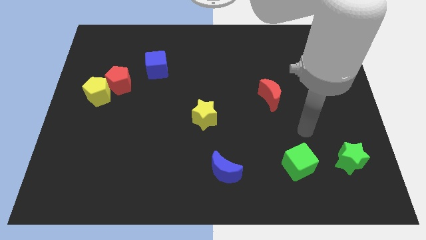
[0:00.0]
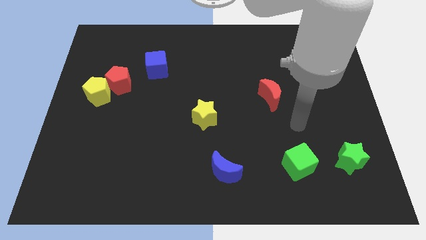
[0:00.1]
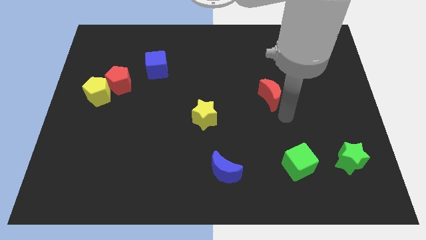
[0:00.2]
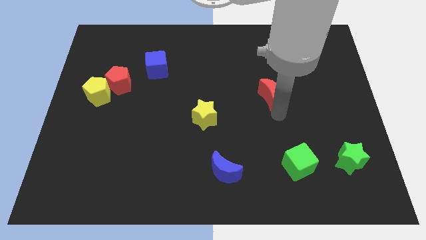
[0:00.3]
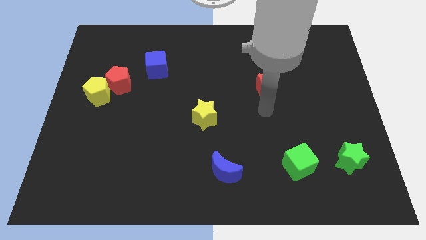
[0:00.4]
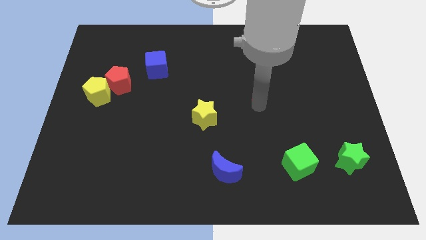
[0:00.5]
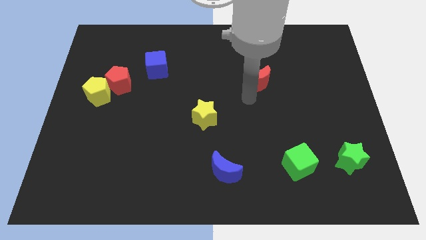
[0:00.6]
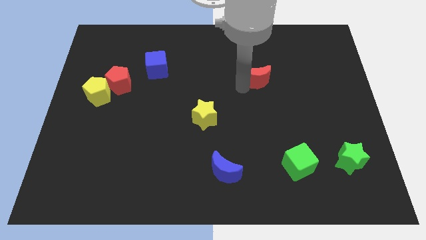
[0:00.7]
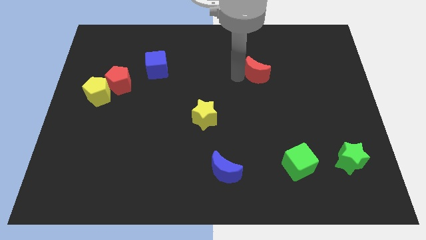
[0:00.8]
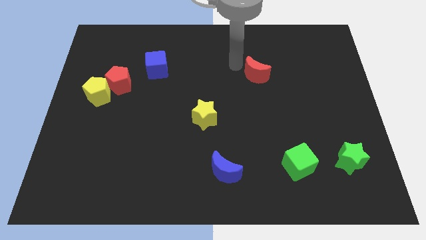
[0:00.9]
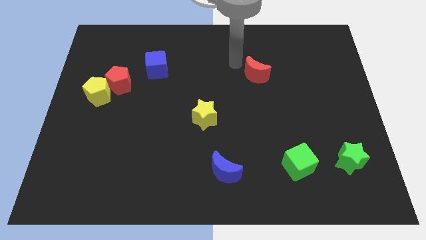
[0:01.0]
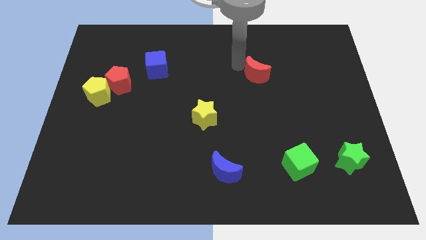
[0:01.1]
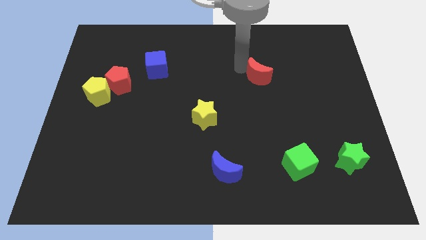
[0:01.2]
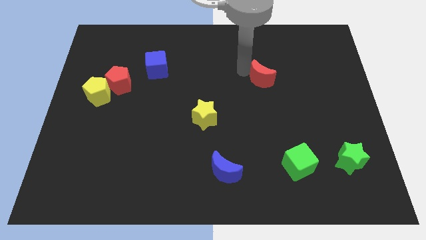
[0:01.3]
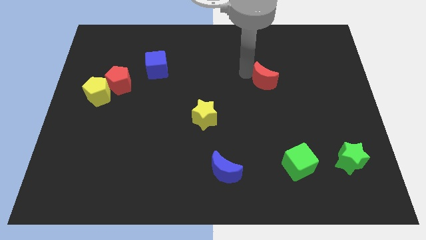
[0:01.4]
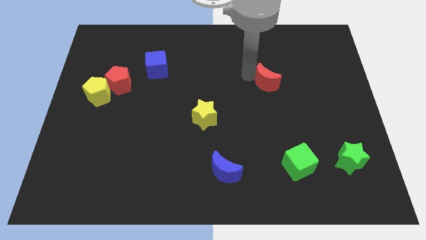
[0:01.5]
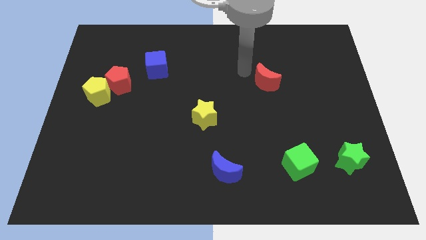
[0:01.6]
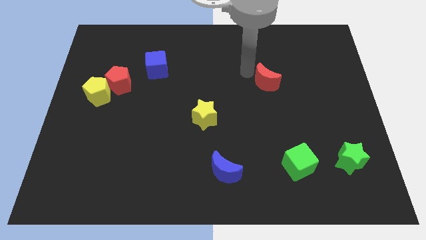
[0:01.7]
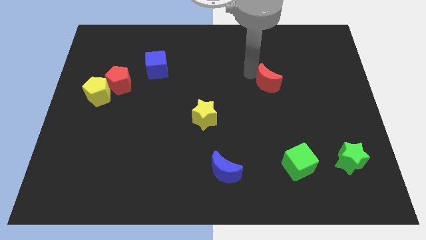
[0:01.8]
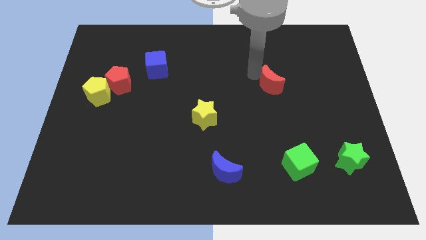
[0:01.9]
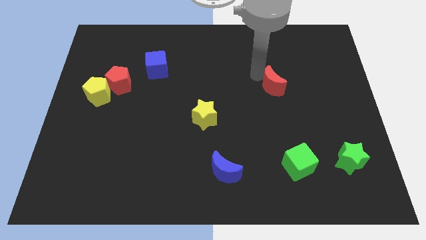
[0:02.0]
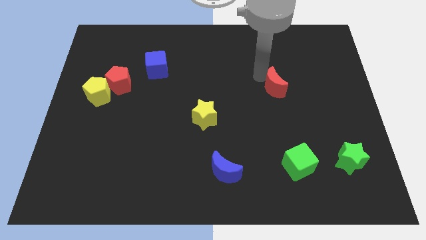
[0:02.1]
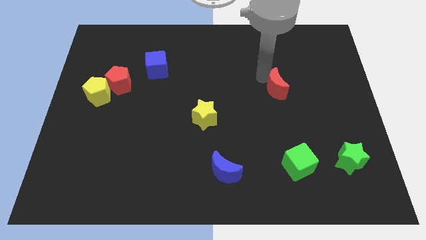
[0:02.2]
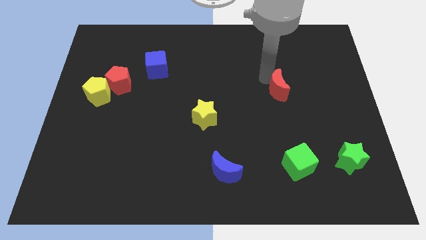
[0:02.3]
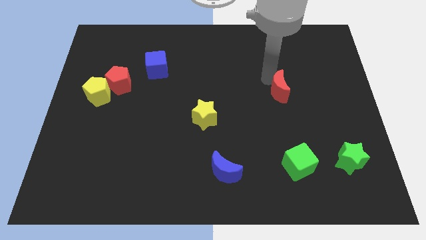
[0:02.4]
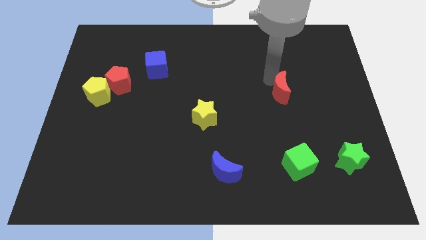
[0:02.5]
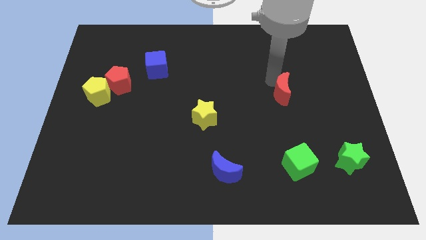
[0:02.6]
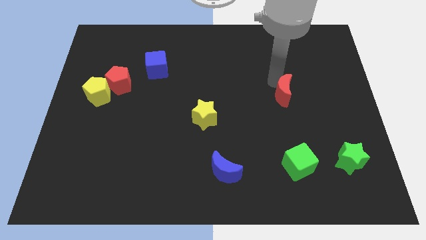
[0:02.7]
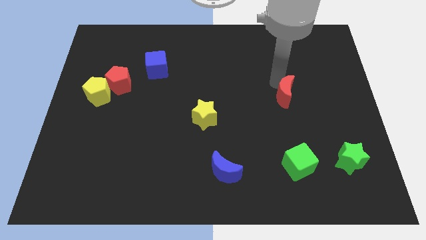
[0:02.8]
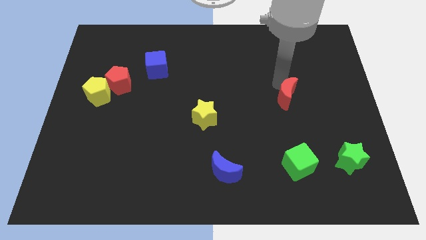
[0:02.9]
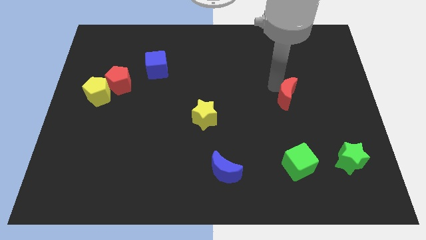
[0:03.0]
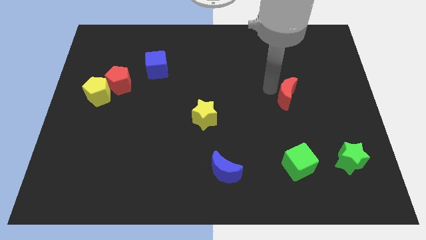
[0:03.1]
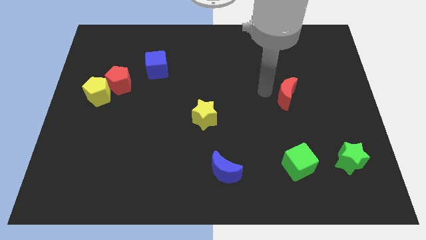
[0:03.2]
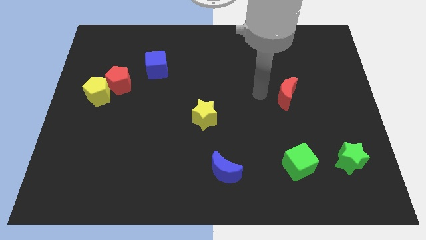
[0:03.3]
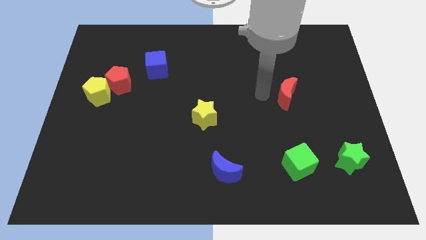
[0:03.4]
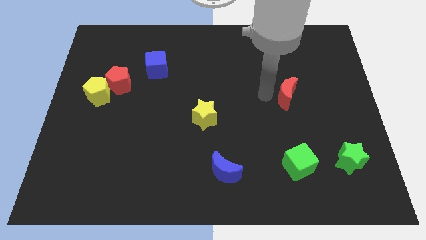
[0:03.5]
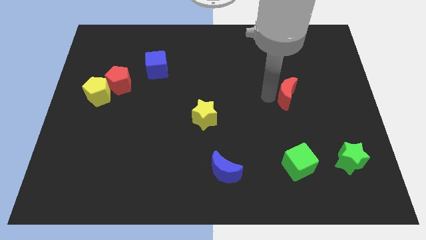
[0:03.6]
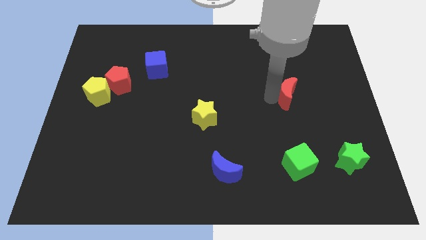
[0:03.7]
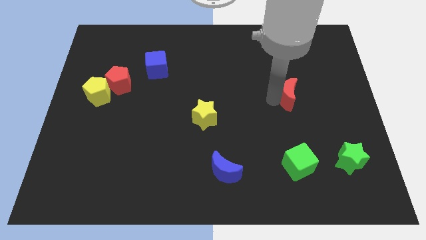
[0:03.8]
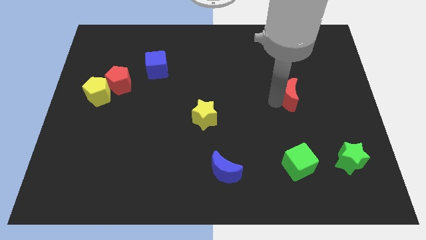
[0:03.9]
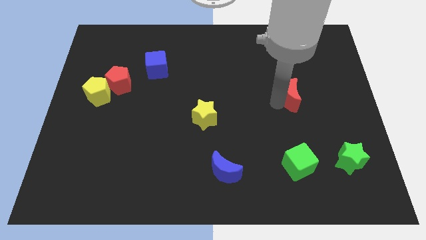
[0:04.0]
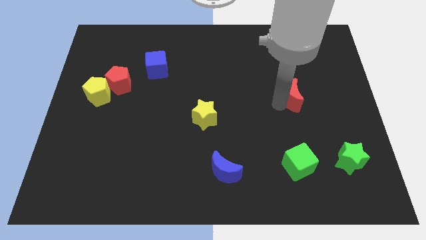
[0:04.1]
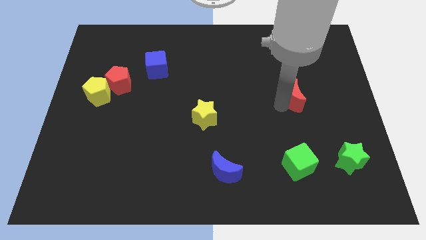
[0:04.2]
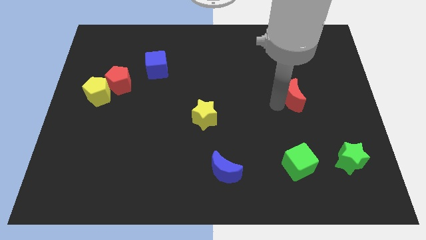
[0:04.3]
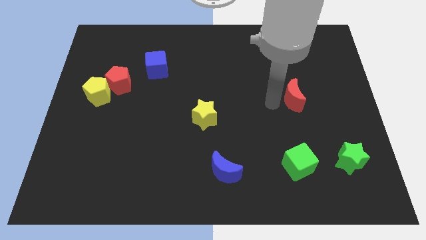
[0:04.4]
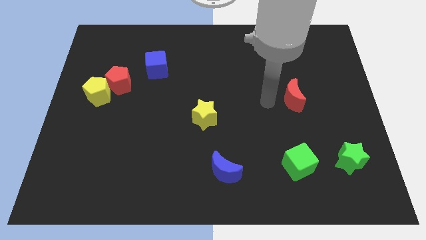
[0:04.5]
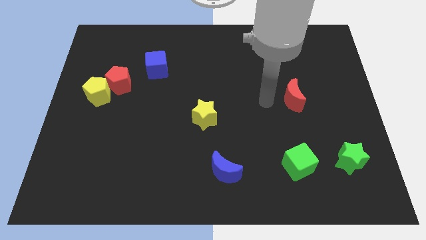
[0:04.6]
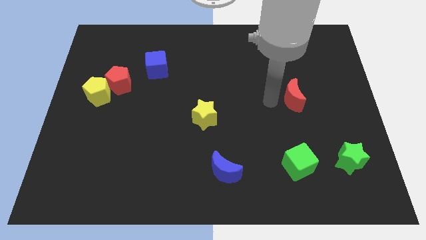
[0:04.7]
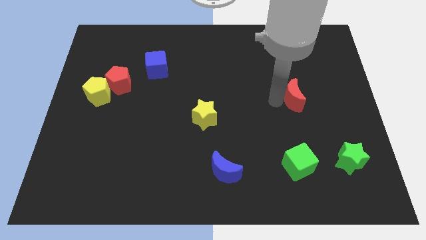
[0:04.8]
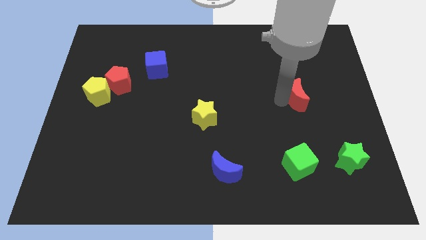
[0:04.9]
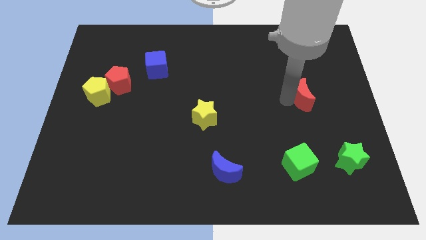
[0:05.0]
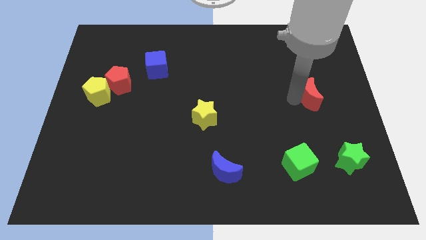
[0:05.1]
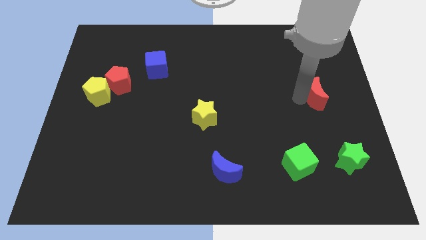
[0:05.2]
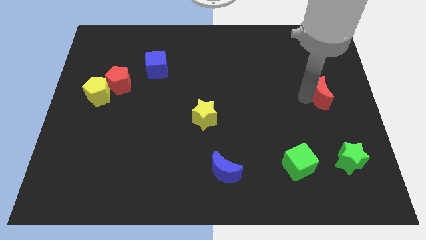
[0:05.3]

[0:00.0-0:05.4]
slide the red moon to the right side of the board

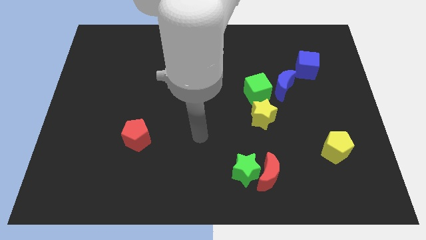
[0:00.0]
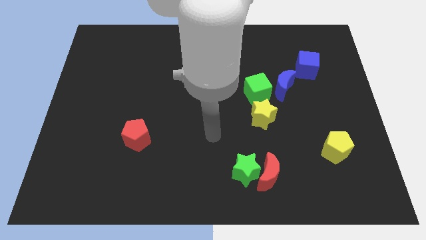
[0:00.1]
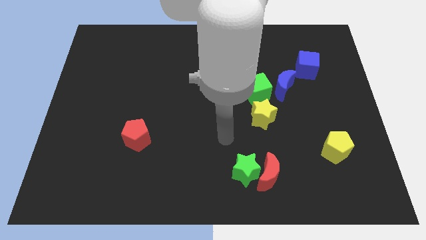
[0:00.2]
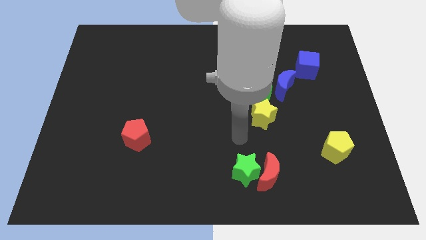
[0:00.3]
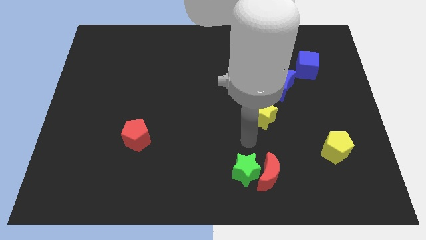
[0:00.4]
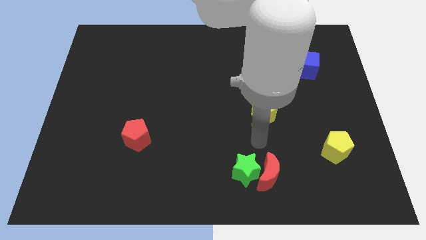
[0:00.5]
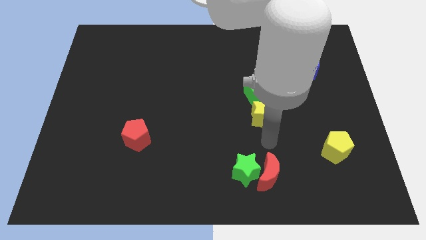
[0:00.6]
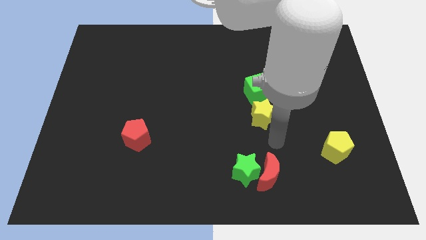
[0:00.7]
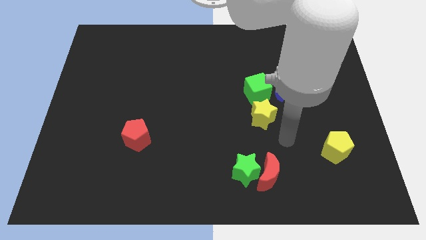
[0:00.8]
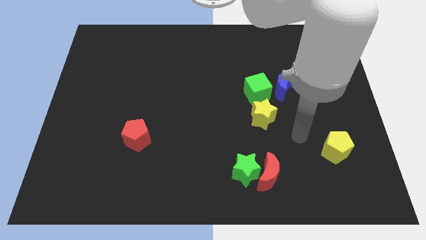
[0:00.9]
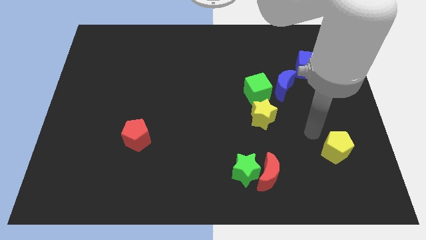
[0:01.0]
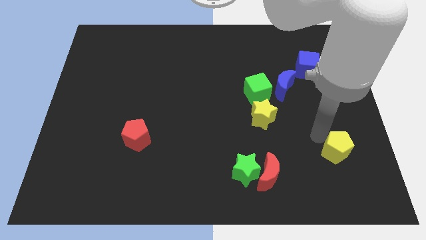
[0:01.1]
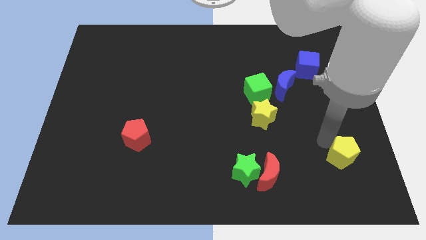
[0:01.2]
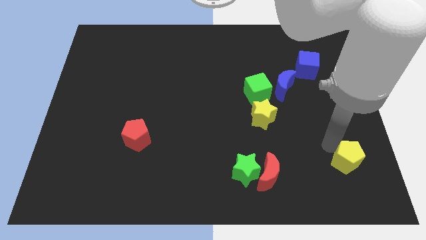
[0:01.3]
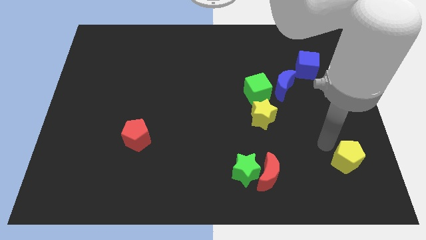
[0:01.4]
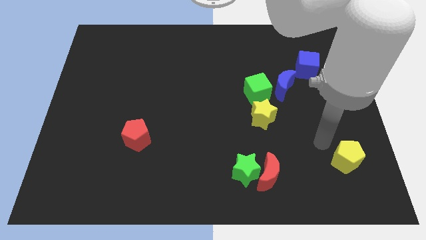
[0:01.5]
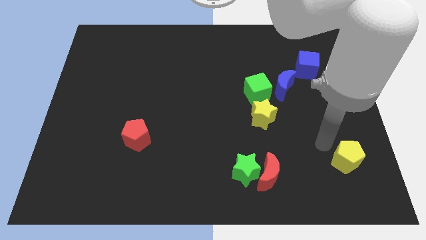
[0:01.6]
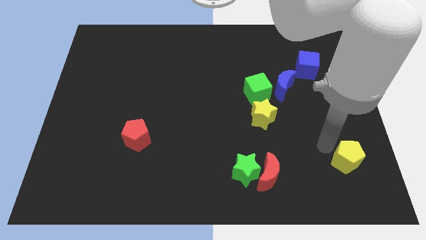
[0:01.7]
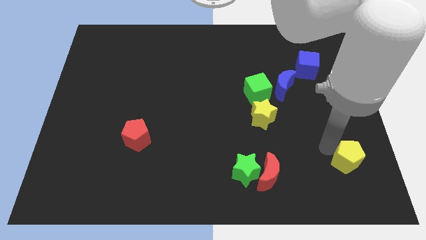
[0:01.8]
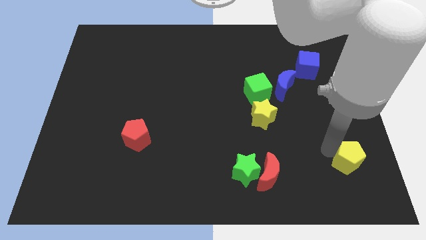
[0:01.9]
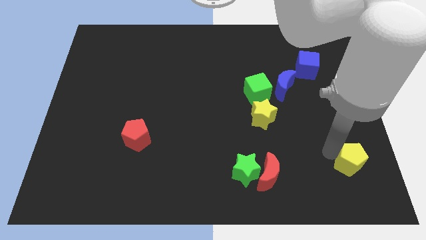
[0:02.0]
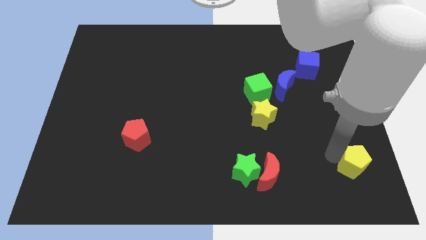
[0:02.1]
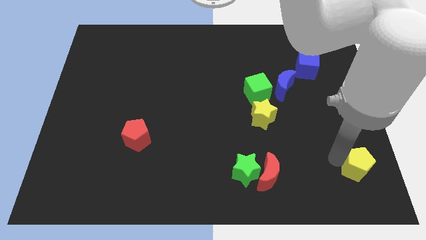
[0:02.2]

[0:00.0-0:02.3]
put the yellow pentagon to the bottom right
